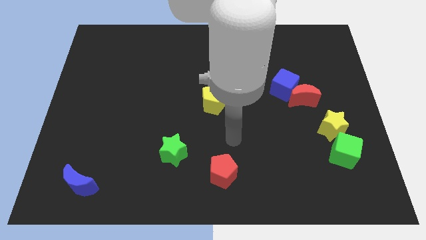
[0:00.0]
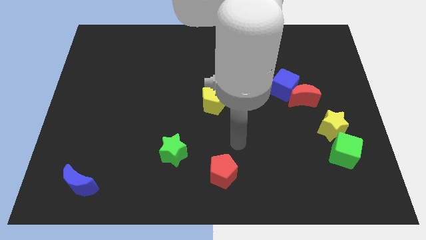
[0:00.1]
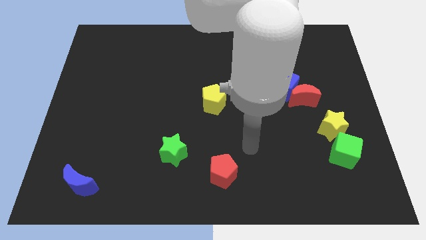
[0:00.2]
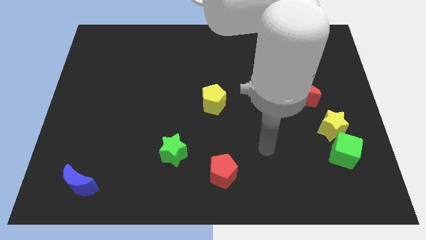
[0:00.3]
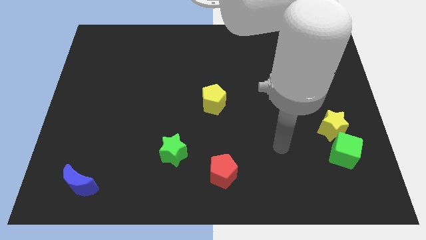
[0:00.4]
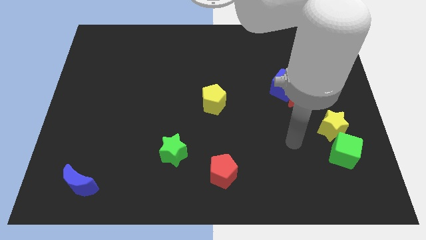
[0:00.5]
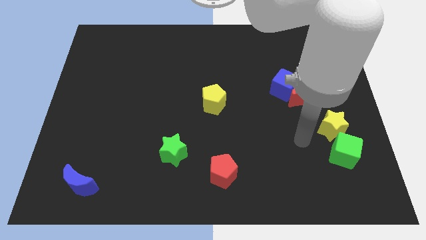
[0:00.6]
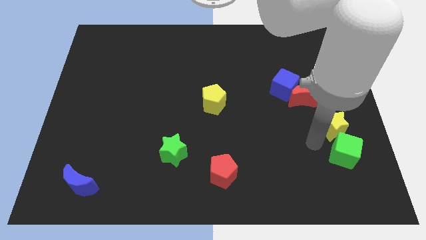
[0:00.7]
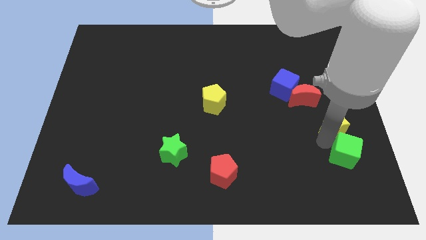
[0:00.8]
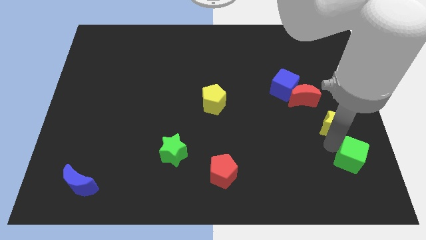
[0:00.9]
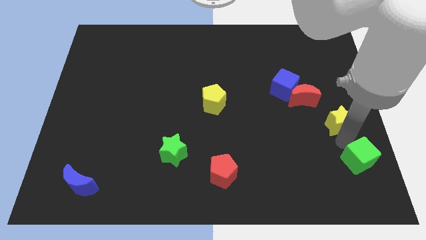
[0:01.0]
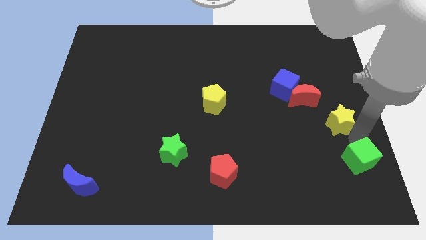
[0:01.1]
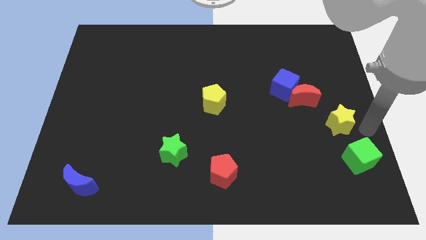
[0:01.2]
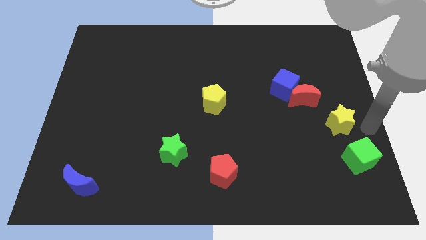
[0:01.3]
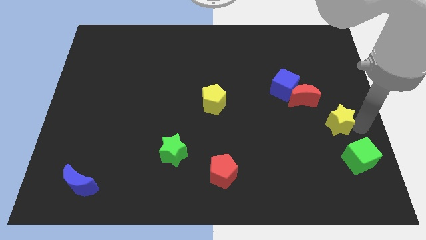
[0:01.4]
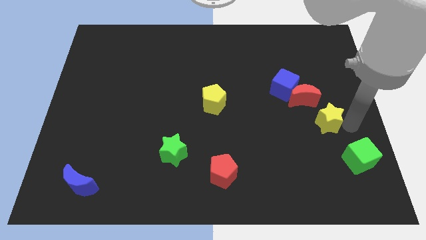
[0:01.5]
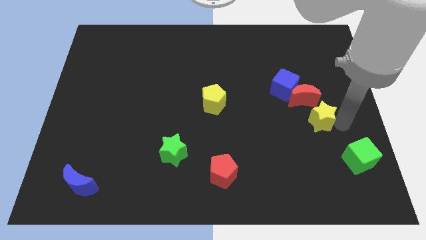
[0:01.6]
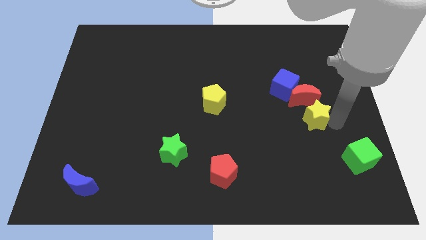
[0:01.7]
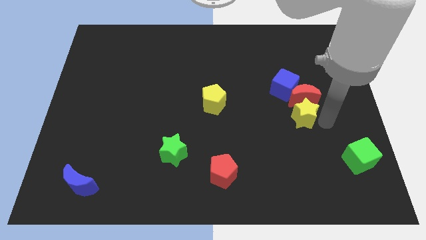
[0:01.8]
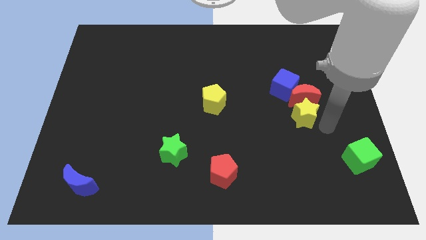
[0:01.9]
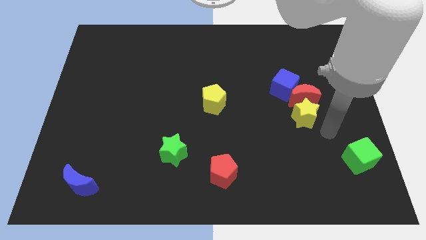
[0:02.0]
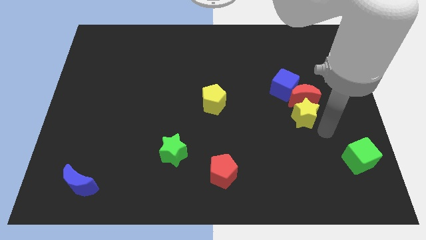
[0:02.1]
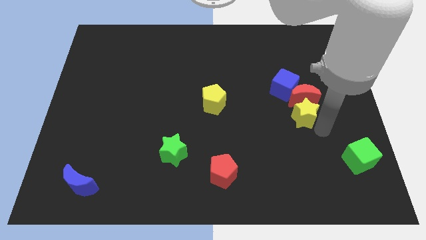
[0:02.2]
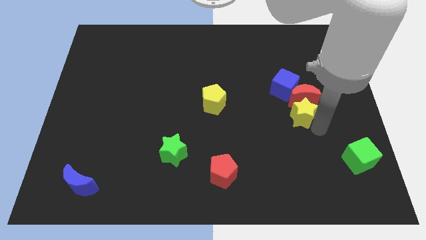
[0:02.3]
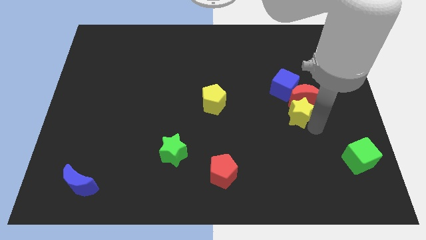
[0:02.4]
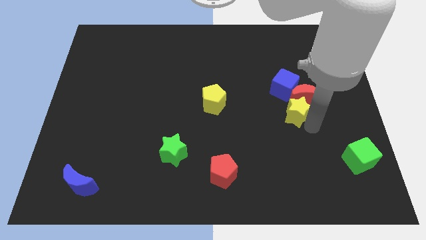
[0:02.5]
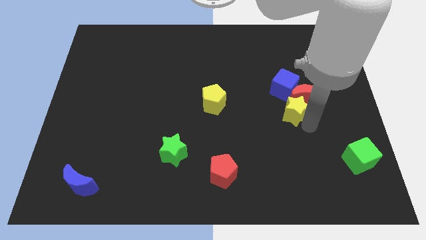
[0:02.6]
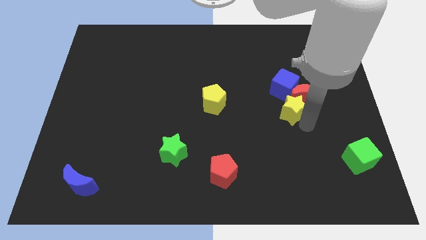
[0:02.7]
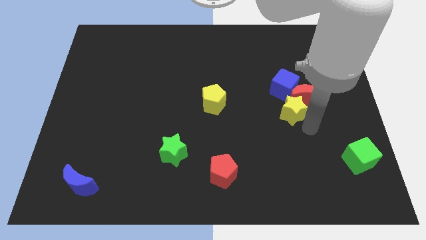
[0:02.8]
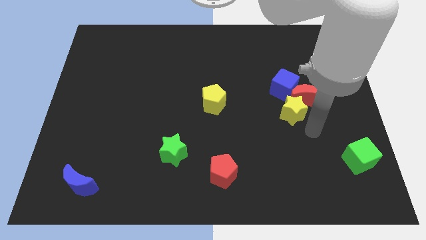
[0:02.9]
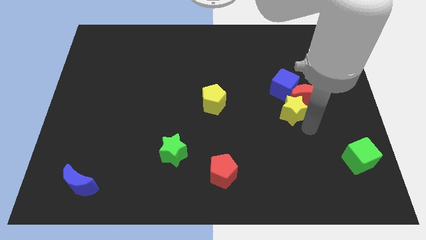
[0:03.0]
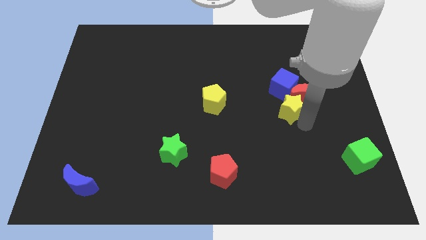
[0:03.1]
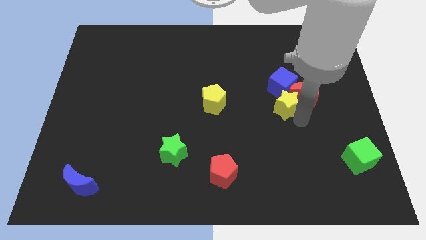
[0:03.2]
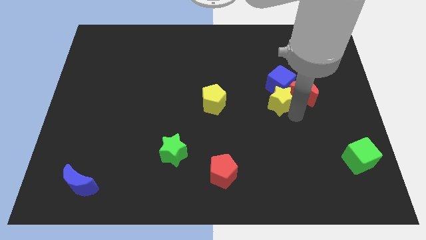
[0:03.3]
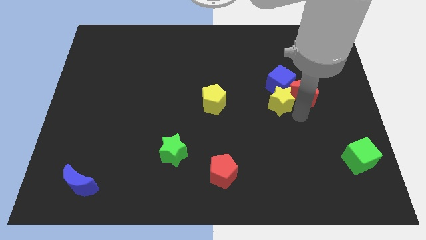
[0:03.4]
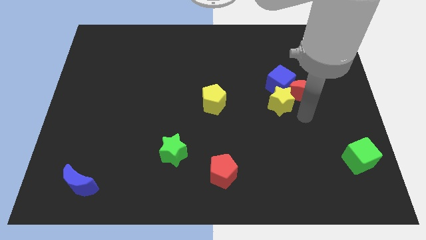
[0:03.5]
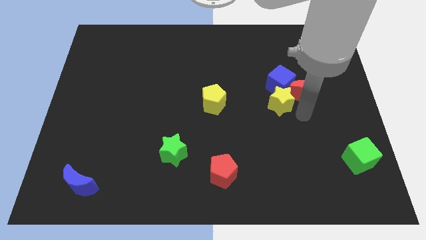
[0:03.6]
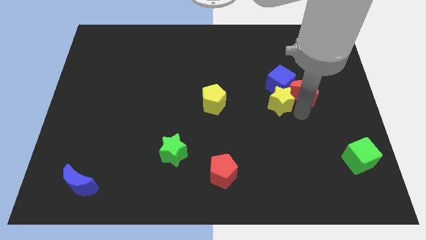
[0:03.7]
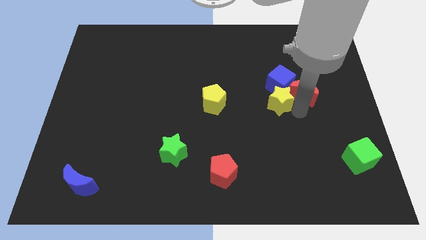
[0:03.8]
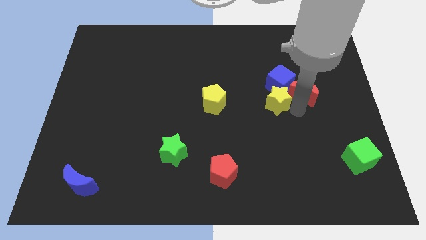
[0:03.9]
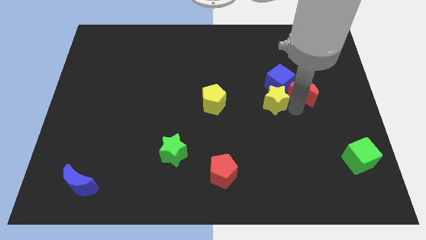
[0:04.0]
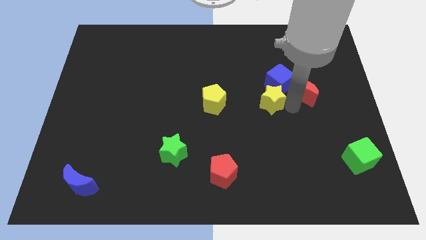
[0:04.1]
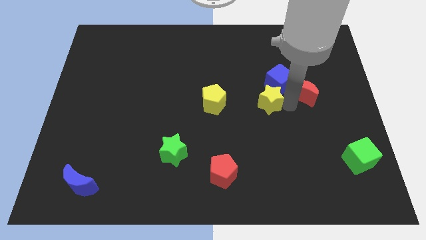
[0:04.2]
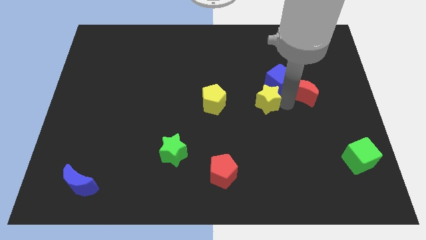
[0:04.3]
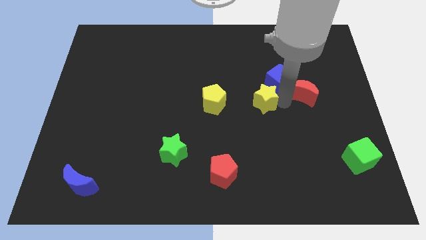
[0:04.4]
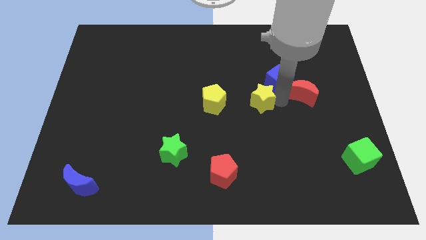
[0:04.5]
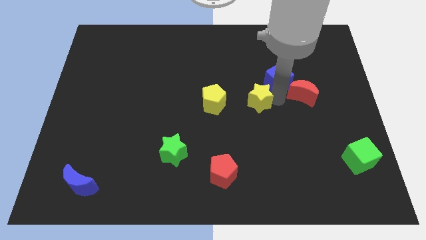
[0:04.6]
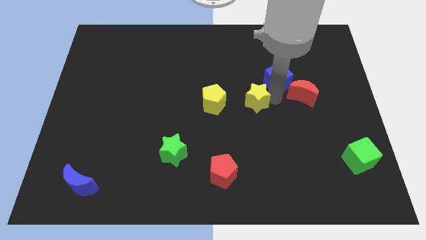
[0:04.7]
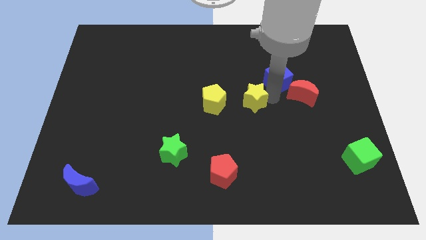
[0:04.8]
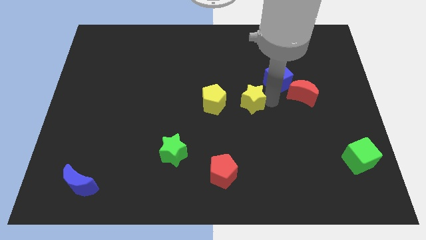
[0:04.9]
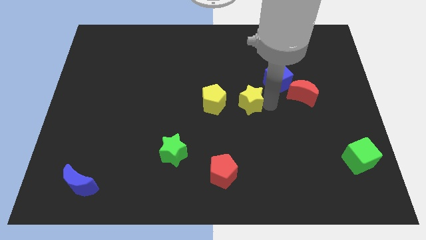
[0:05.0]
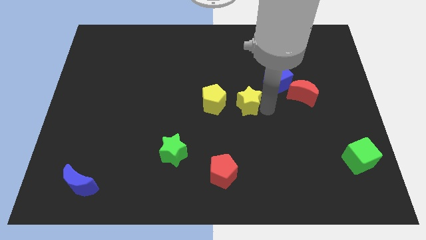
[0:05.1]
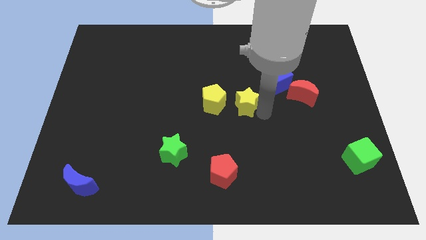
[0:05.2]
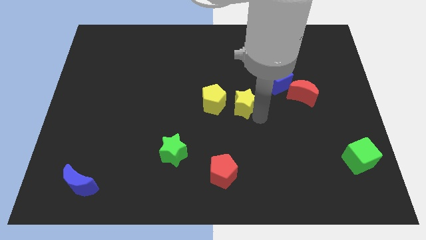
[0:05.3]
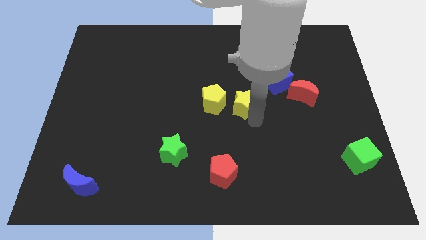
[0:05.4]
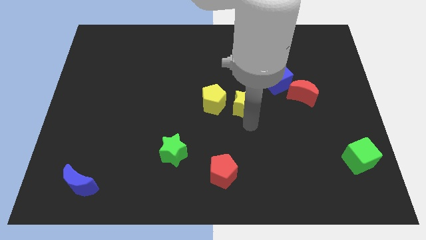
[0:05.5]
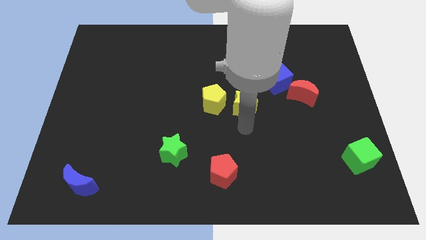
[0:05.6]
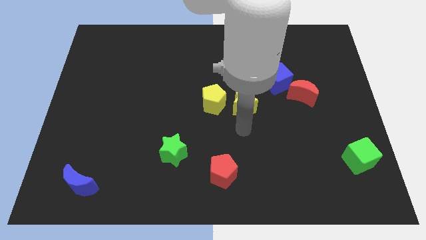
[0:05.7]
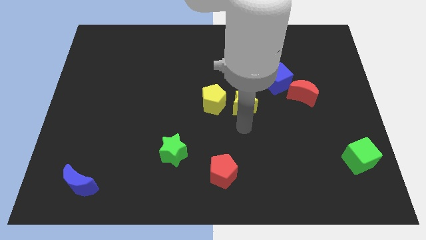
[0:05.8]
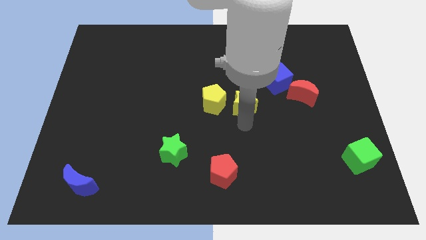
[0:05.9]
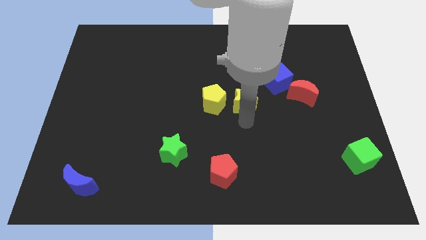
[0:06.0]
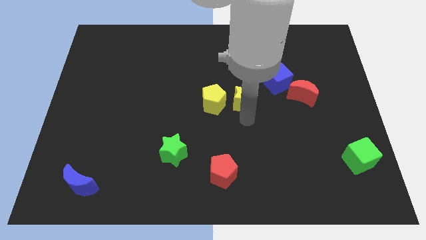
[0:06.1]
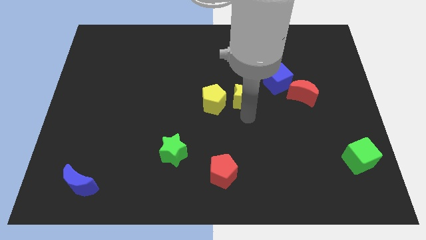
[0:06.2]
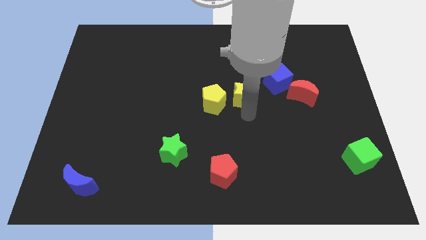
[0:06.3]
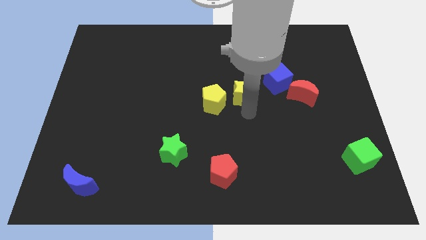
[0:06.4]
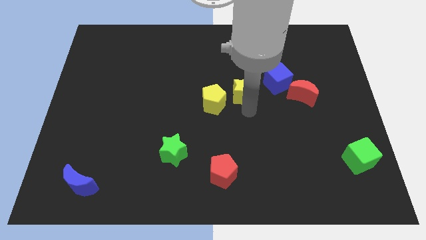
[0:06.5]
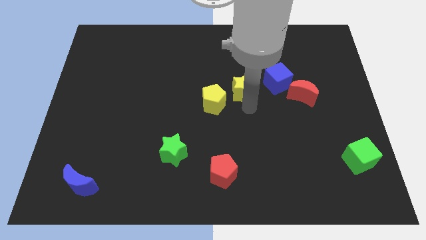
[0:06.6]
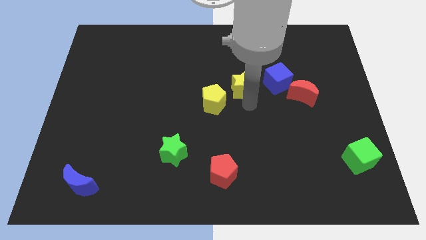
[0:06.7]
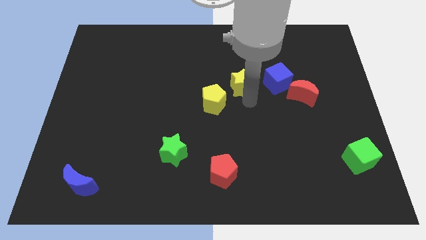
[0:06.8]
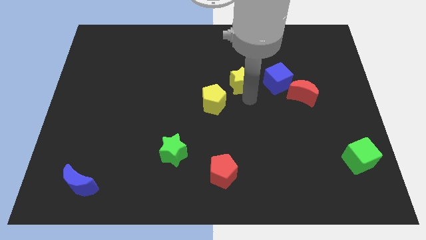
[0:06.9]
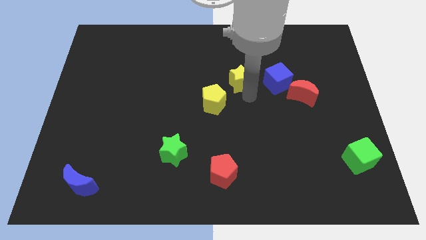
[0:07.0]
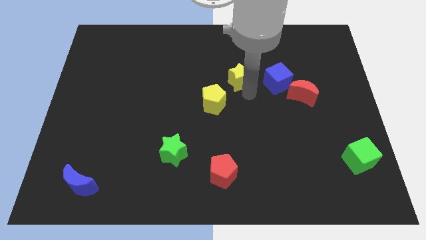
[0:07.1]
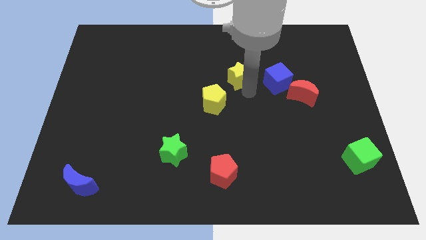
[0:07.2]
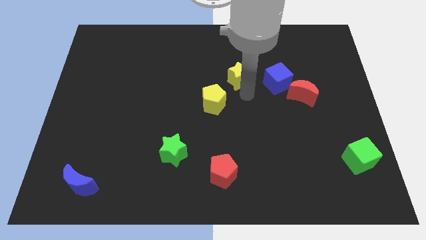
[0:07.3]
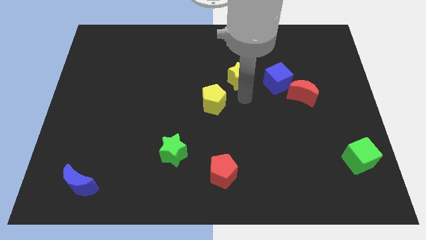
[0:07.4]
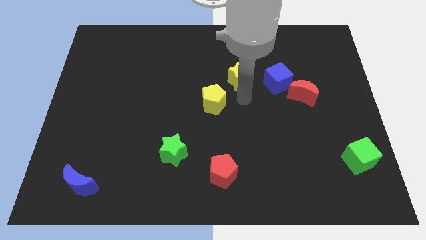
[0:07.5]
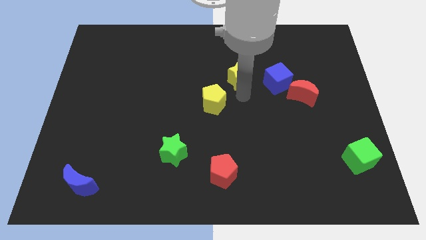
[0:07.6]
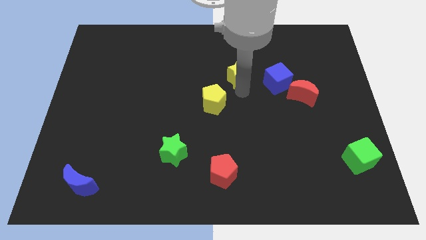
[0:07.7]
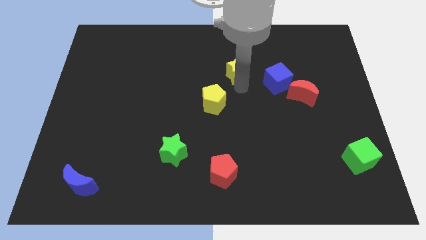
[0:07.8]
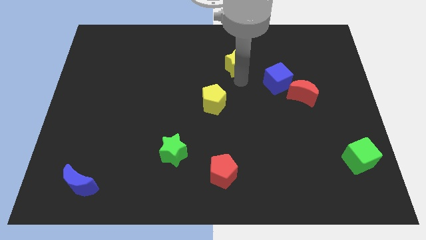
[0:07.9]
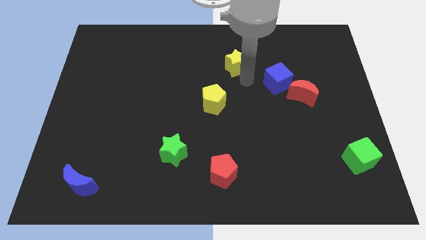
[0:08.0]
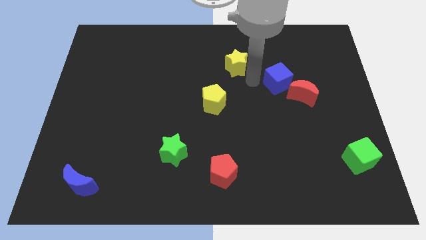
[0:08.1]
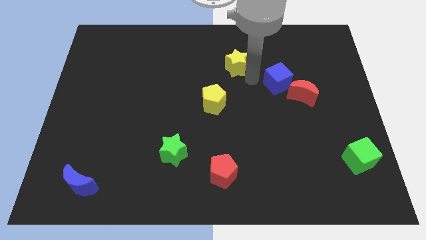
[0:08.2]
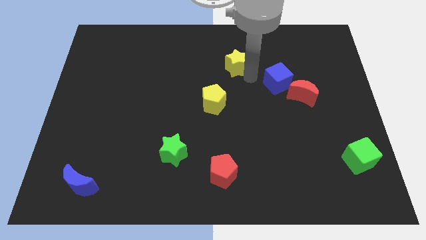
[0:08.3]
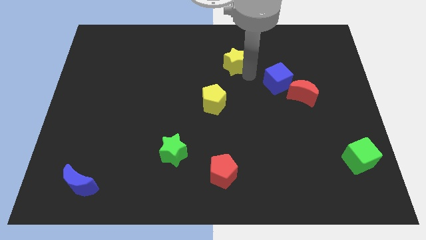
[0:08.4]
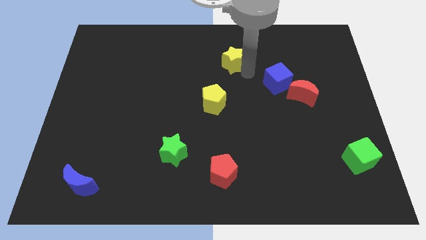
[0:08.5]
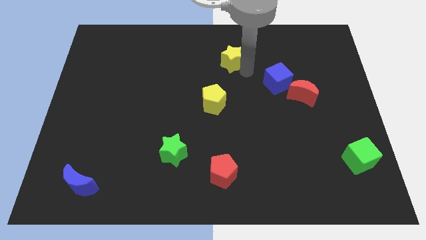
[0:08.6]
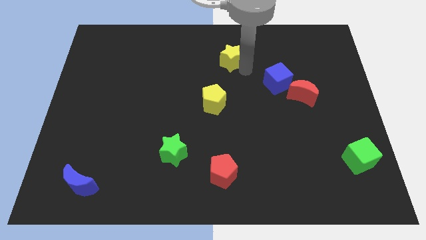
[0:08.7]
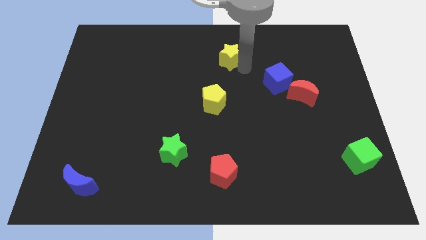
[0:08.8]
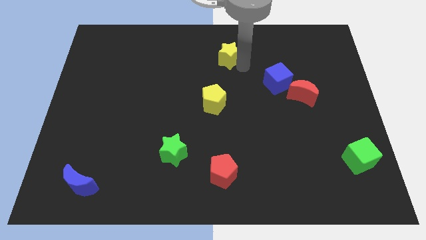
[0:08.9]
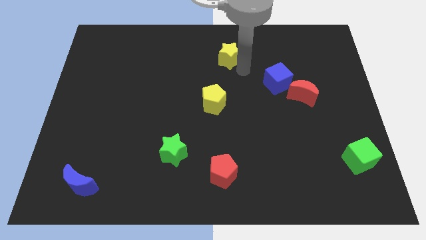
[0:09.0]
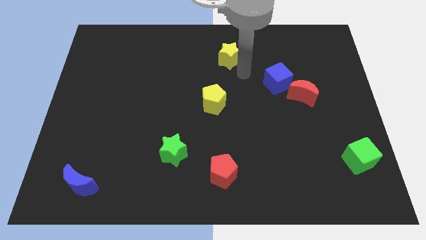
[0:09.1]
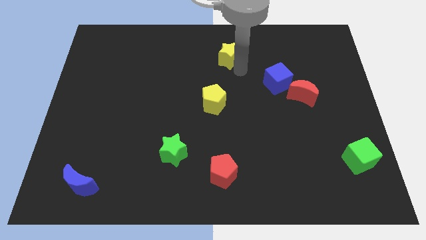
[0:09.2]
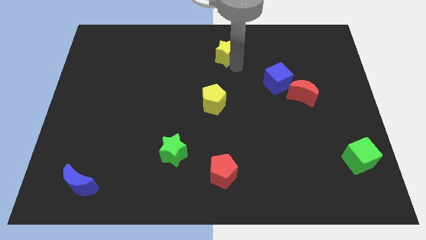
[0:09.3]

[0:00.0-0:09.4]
push the yellow star to the top
